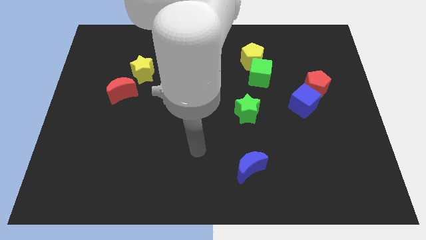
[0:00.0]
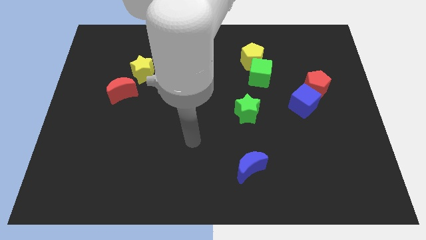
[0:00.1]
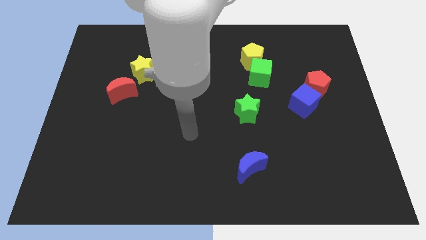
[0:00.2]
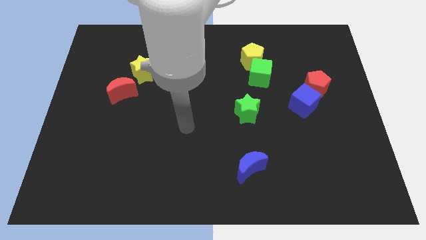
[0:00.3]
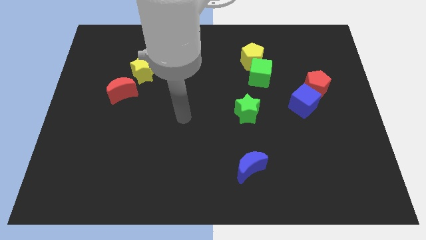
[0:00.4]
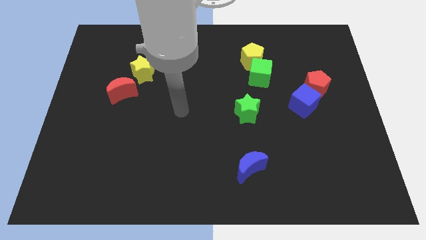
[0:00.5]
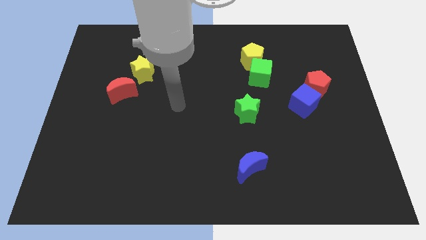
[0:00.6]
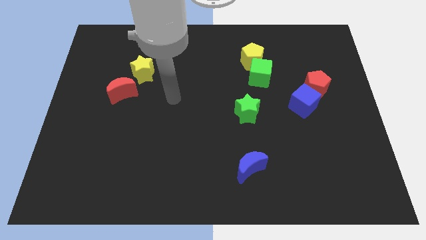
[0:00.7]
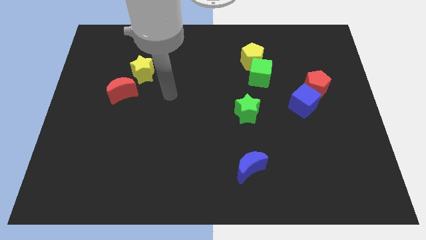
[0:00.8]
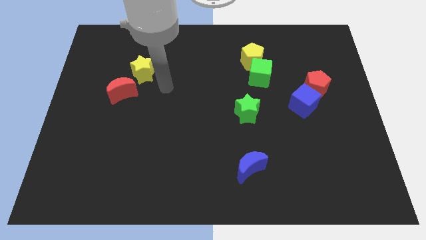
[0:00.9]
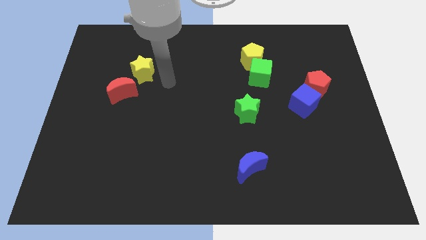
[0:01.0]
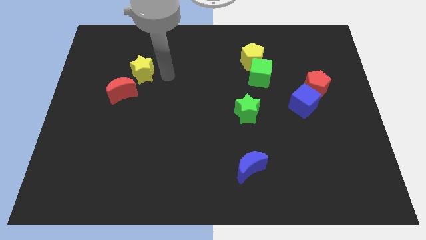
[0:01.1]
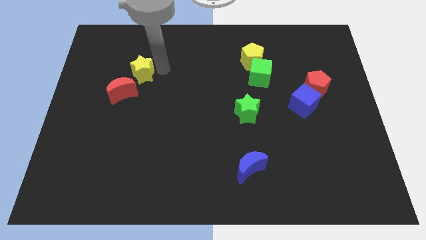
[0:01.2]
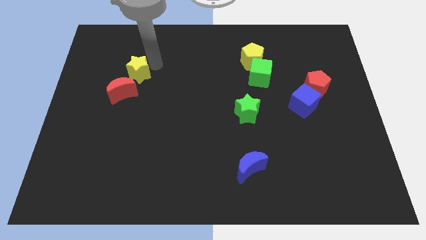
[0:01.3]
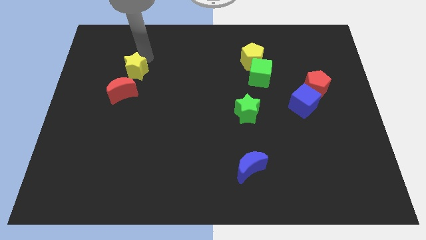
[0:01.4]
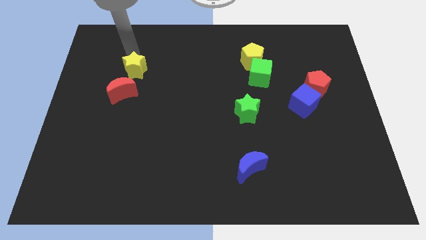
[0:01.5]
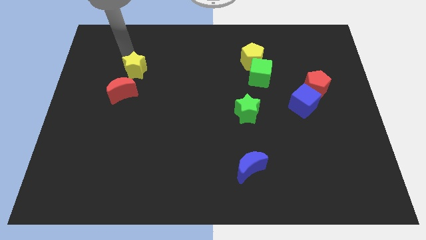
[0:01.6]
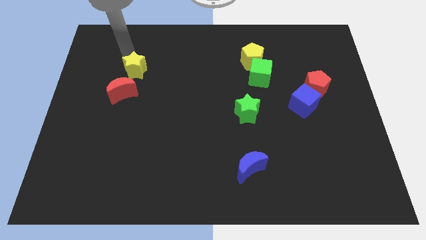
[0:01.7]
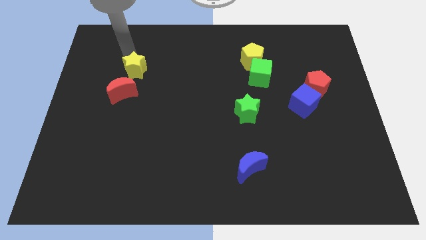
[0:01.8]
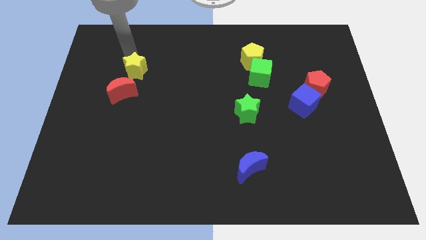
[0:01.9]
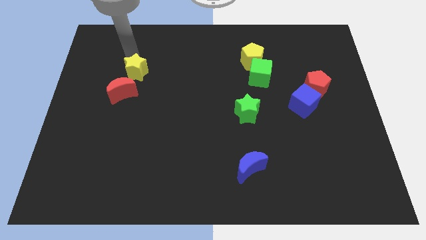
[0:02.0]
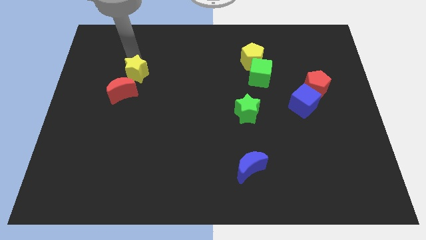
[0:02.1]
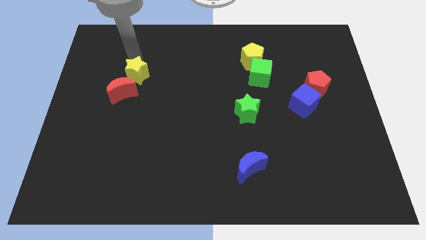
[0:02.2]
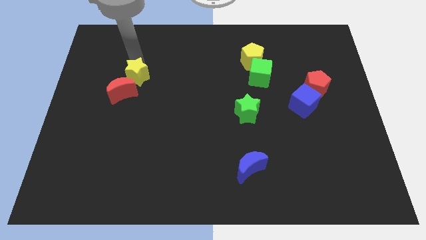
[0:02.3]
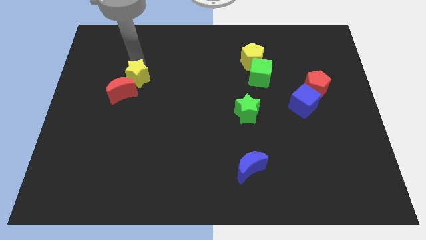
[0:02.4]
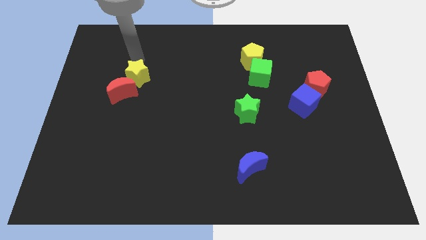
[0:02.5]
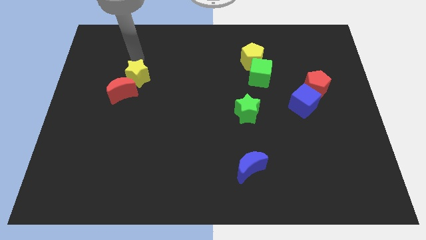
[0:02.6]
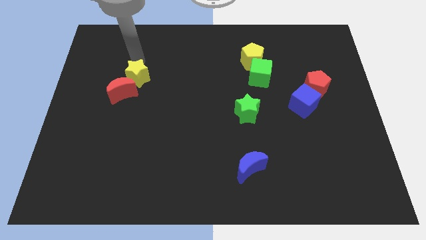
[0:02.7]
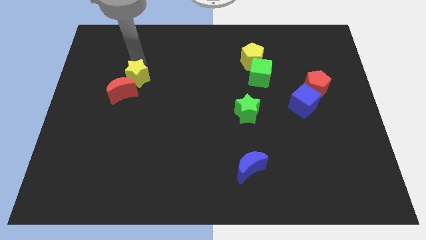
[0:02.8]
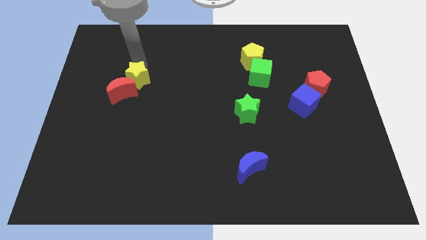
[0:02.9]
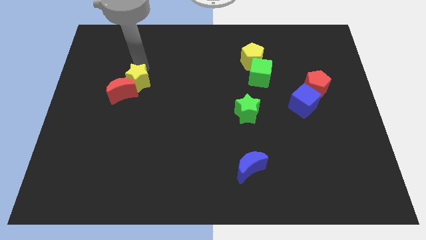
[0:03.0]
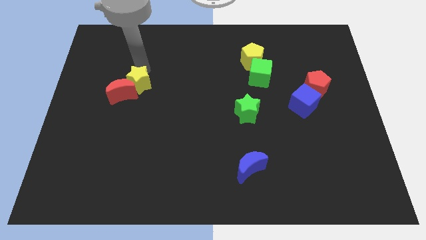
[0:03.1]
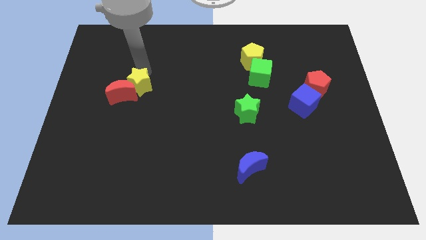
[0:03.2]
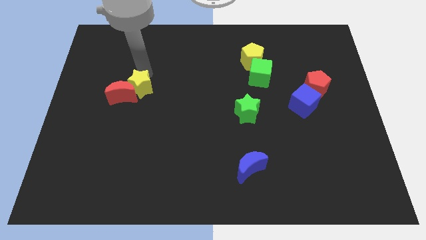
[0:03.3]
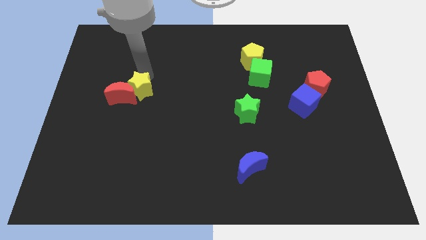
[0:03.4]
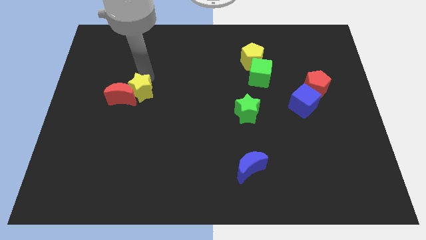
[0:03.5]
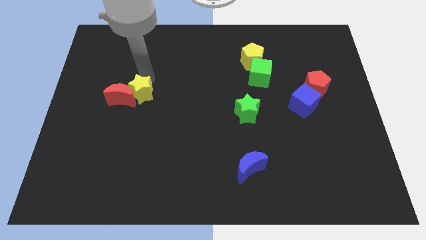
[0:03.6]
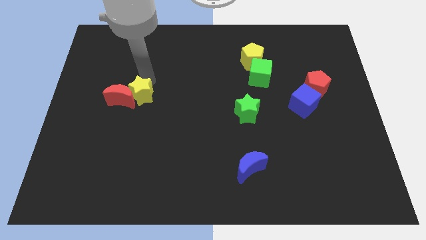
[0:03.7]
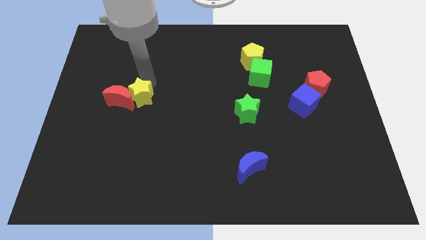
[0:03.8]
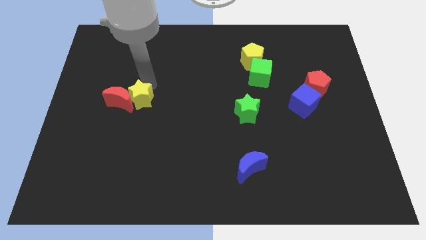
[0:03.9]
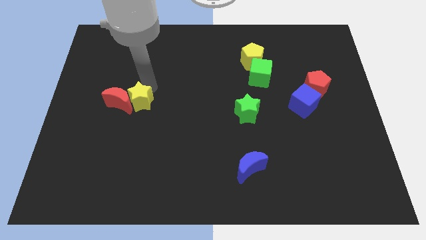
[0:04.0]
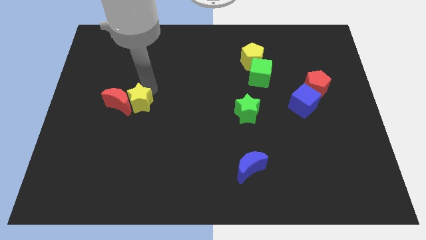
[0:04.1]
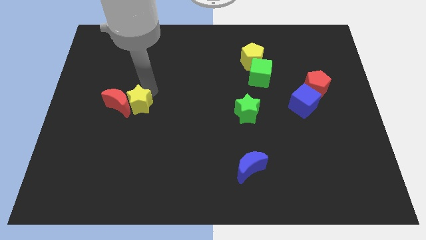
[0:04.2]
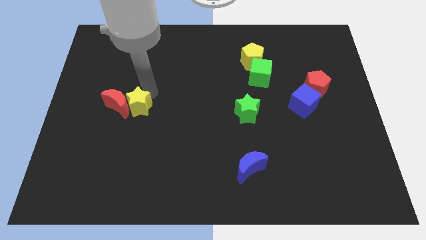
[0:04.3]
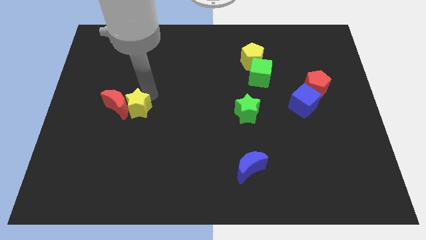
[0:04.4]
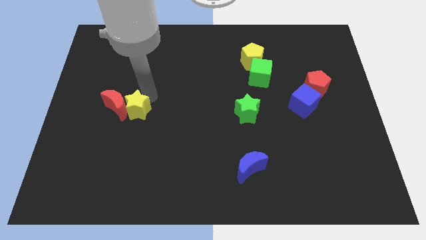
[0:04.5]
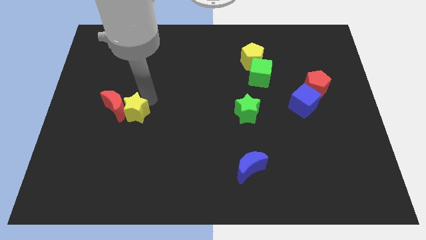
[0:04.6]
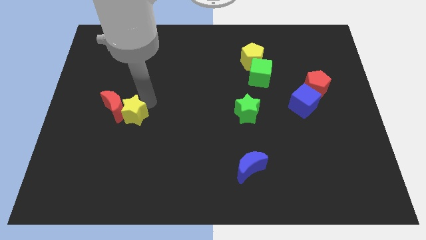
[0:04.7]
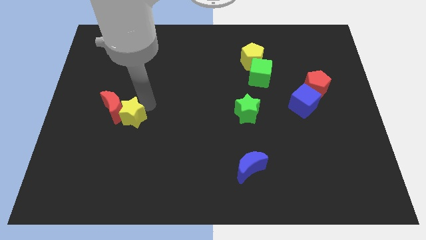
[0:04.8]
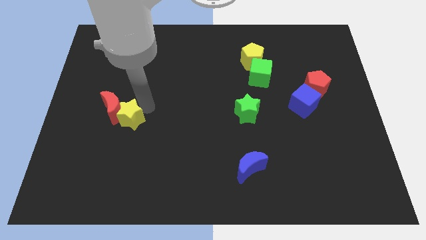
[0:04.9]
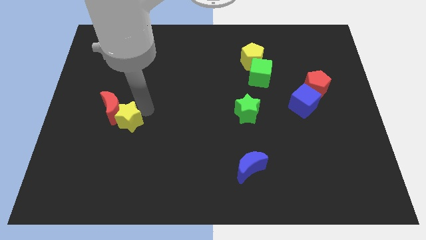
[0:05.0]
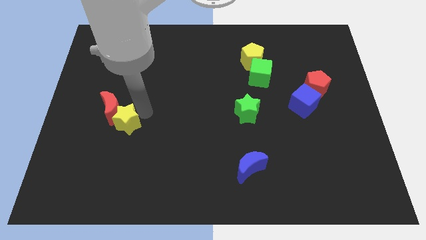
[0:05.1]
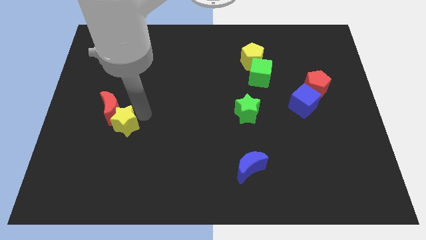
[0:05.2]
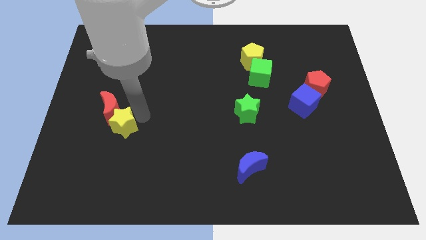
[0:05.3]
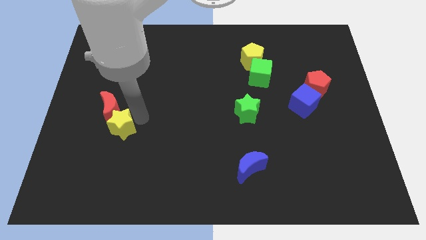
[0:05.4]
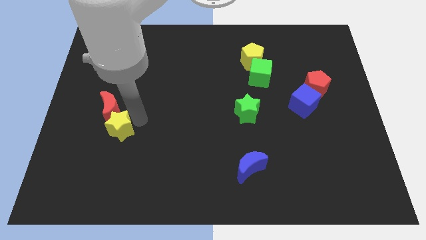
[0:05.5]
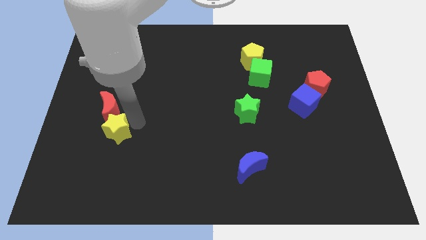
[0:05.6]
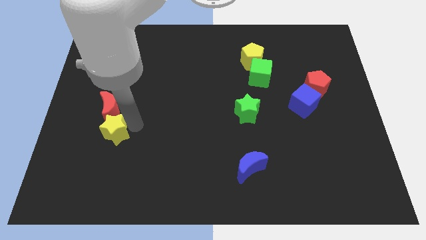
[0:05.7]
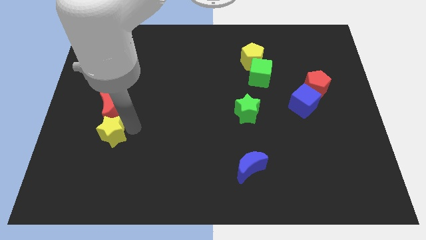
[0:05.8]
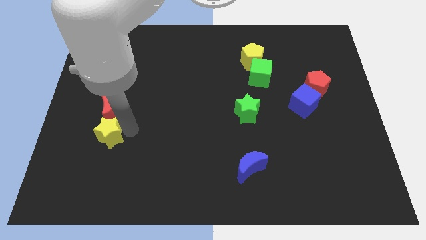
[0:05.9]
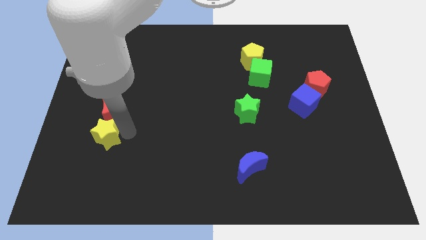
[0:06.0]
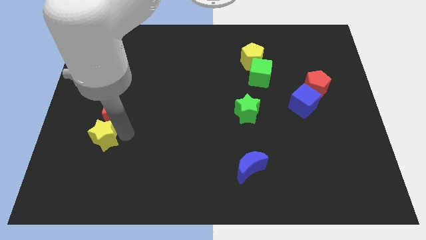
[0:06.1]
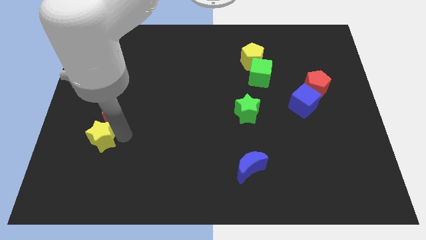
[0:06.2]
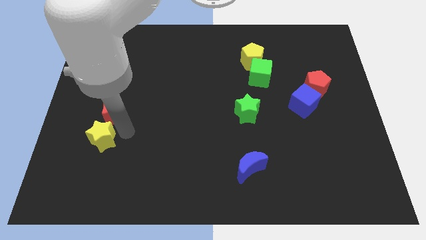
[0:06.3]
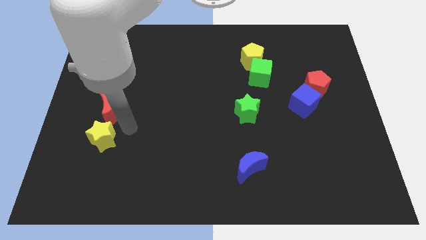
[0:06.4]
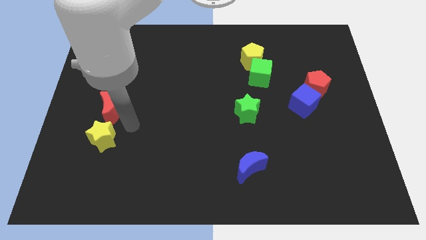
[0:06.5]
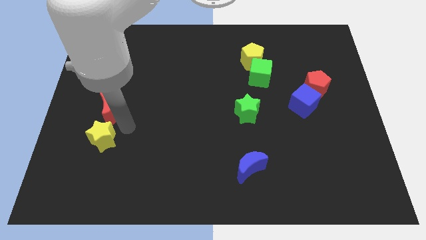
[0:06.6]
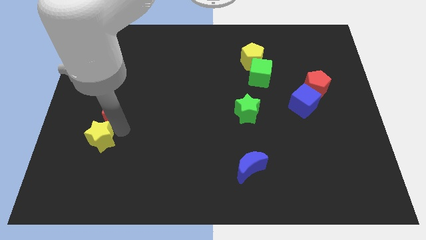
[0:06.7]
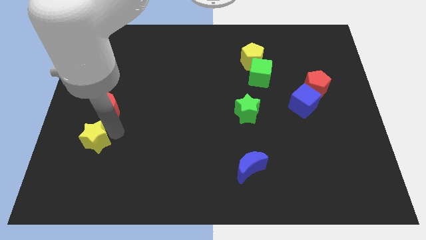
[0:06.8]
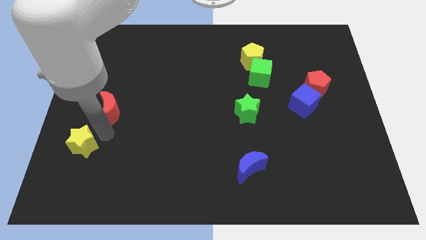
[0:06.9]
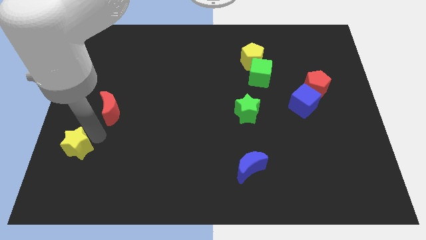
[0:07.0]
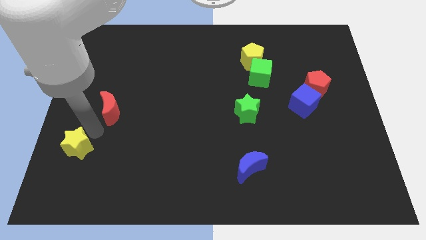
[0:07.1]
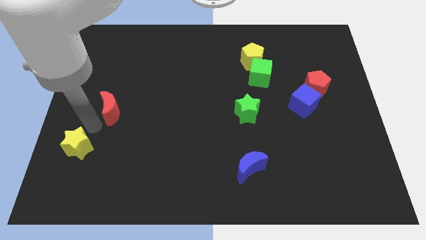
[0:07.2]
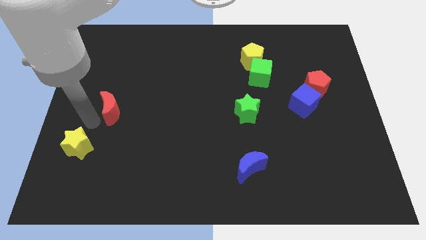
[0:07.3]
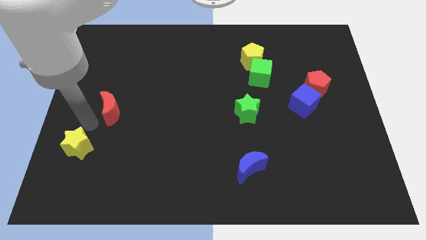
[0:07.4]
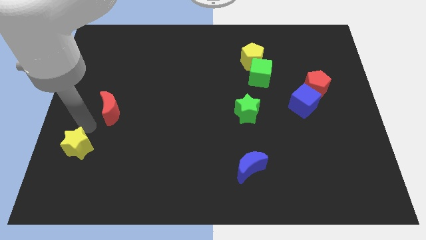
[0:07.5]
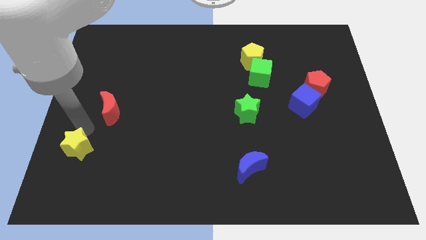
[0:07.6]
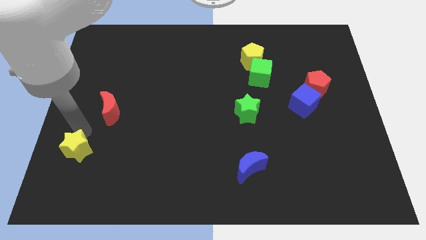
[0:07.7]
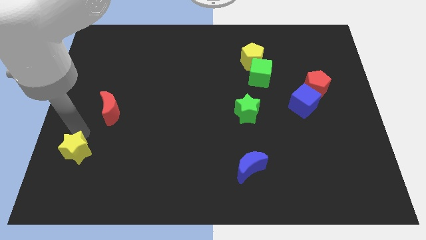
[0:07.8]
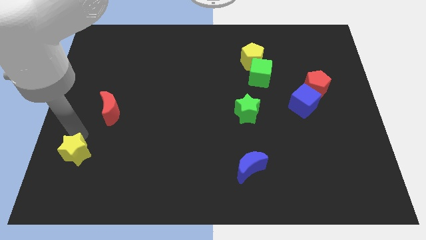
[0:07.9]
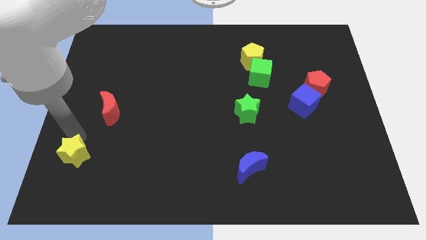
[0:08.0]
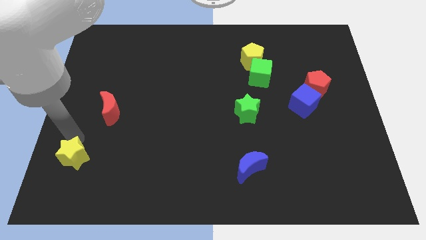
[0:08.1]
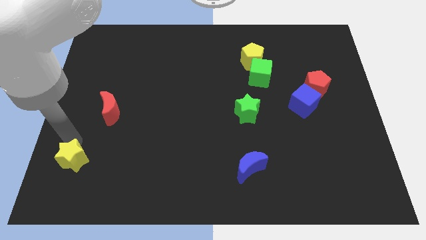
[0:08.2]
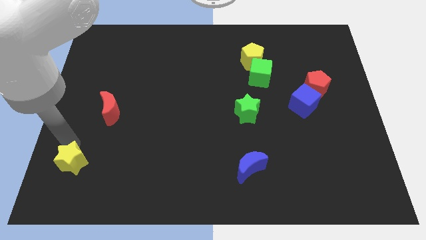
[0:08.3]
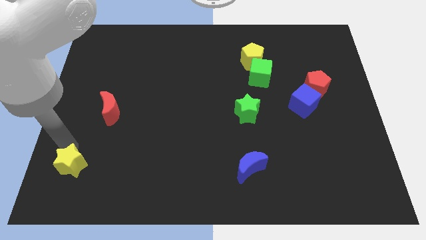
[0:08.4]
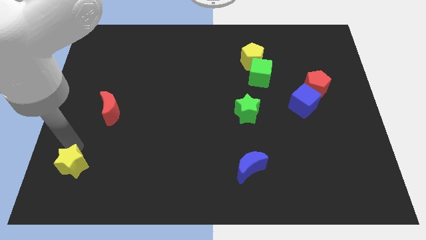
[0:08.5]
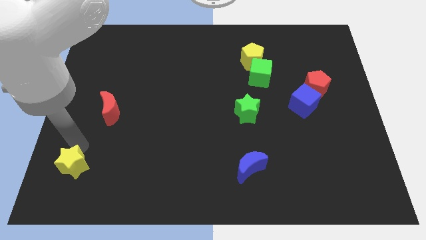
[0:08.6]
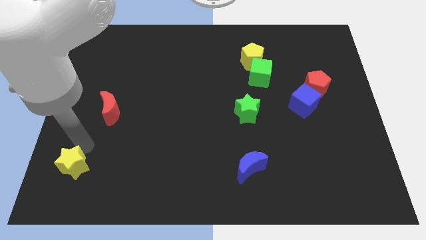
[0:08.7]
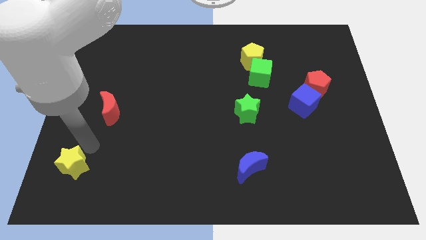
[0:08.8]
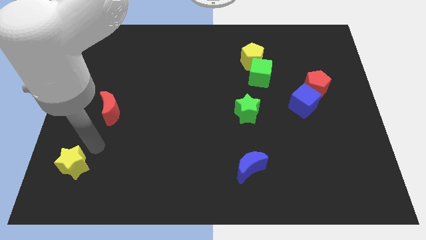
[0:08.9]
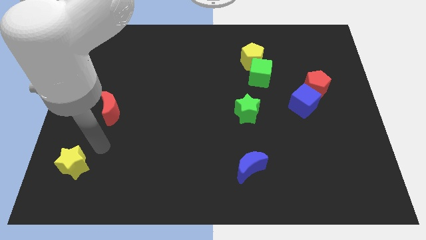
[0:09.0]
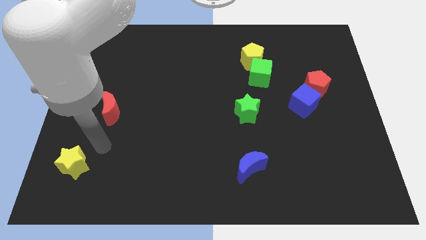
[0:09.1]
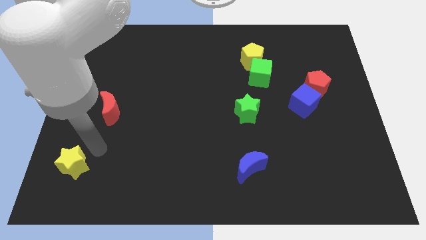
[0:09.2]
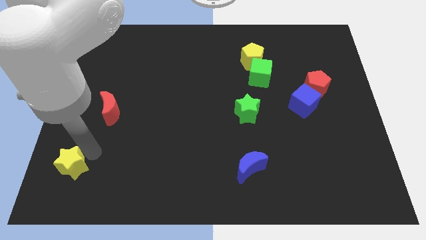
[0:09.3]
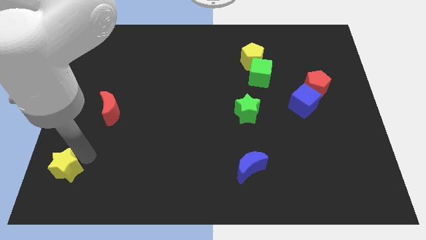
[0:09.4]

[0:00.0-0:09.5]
move the yellow star to the bottom left
